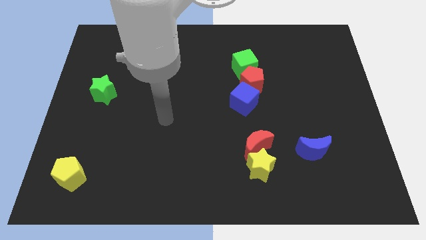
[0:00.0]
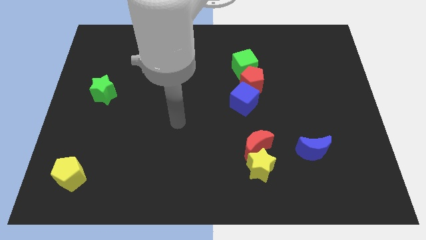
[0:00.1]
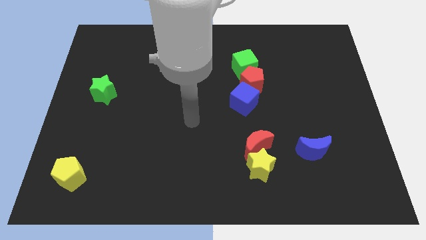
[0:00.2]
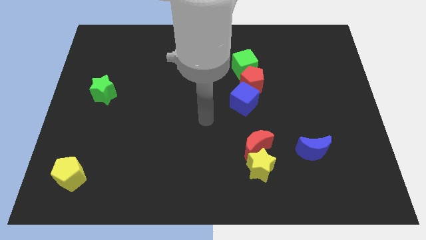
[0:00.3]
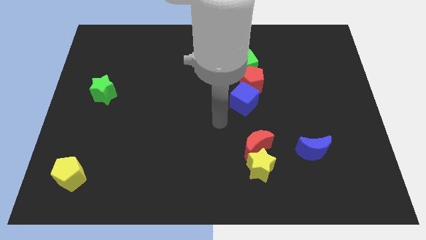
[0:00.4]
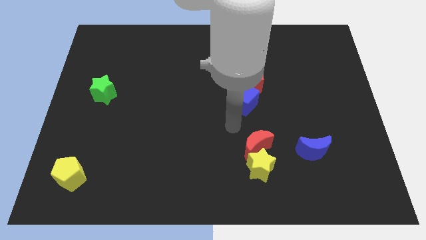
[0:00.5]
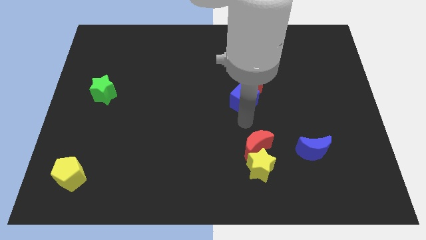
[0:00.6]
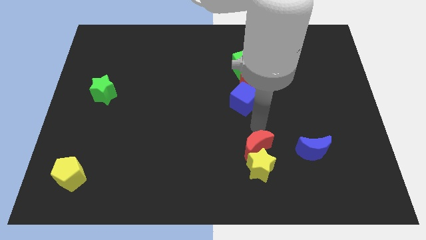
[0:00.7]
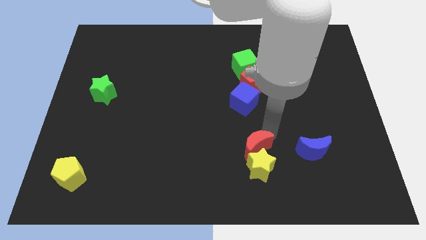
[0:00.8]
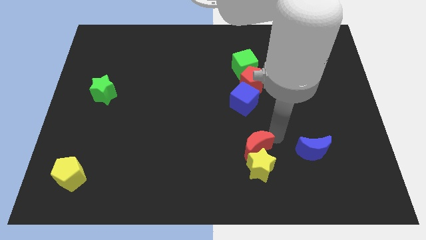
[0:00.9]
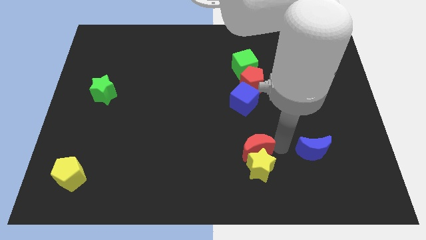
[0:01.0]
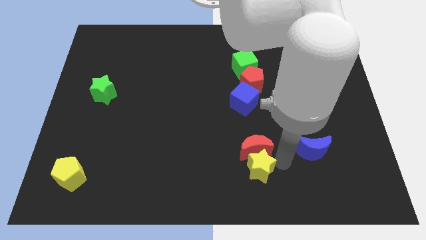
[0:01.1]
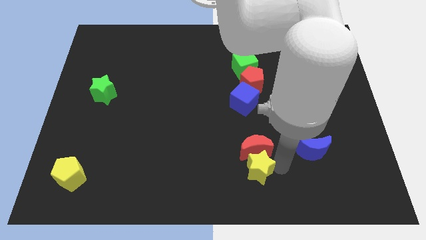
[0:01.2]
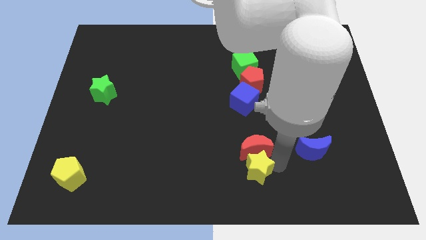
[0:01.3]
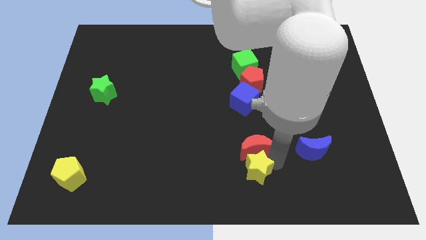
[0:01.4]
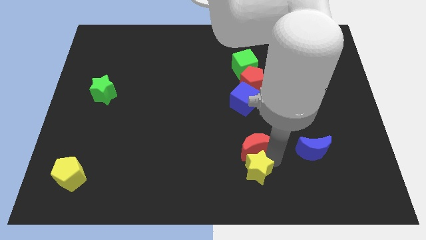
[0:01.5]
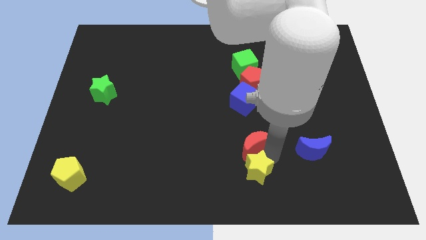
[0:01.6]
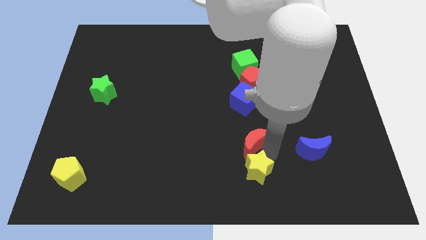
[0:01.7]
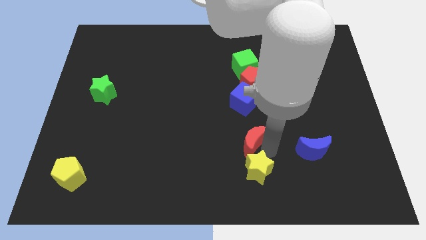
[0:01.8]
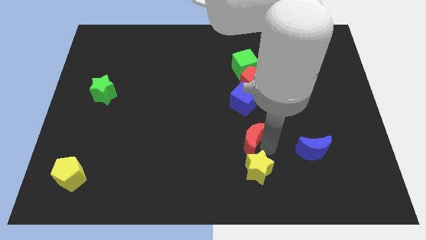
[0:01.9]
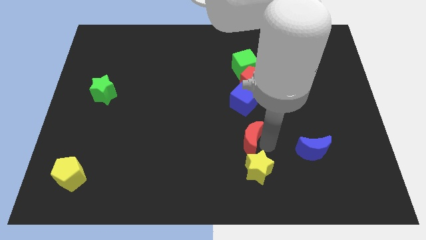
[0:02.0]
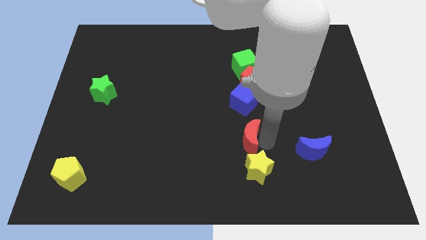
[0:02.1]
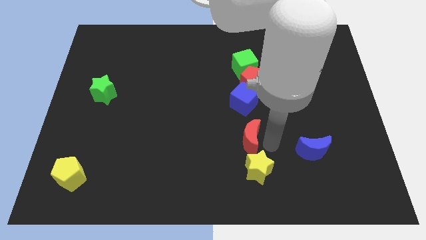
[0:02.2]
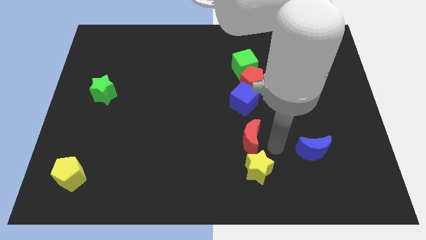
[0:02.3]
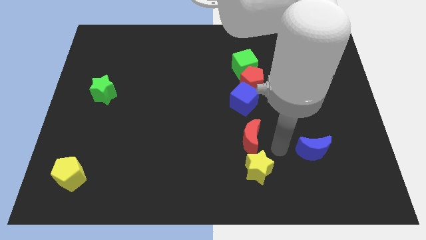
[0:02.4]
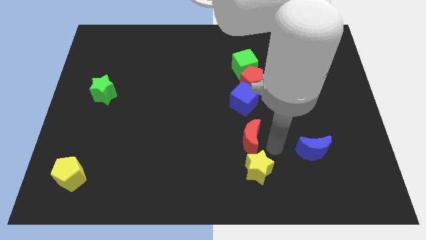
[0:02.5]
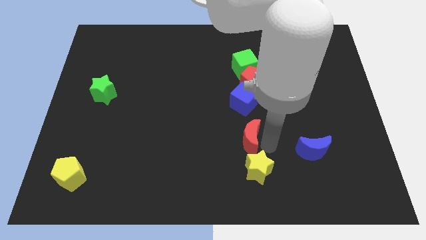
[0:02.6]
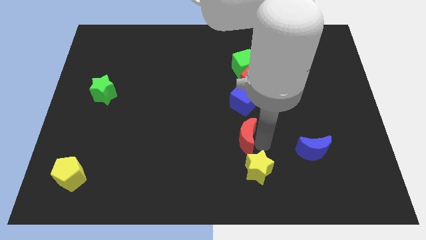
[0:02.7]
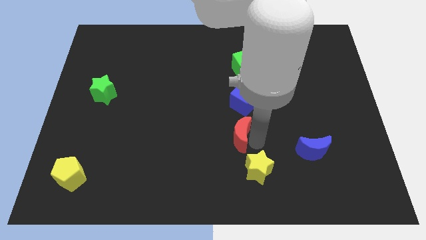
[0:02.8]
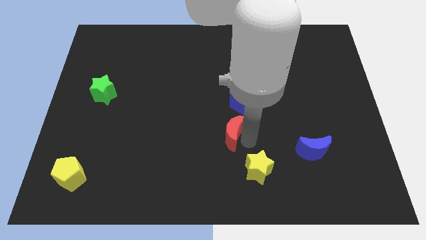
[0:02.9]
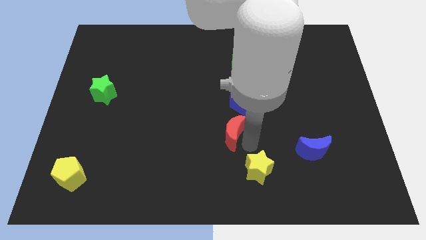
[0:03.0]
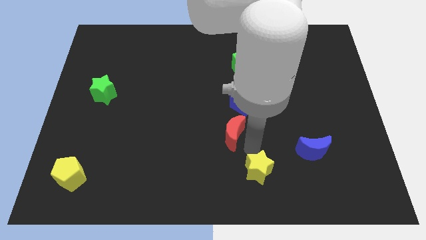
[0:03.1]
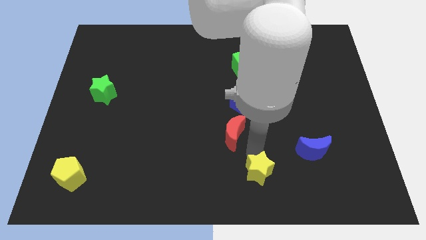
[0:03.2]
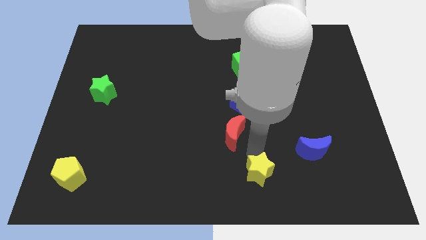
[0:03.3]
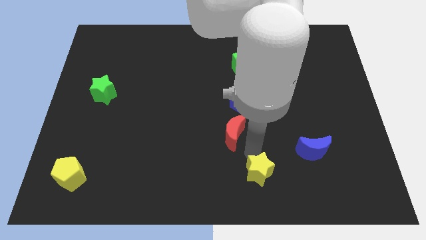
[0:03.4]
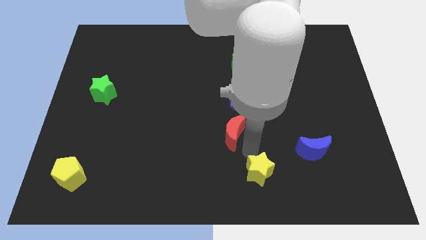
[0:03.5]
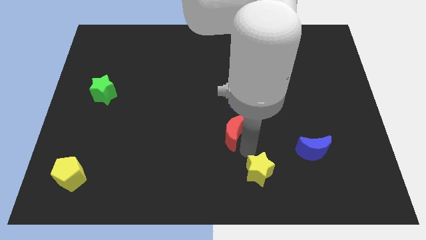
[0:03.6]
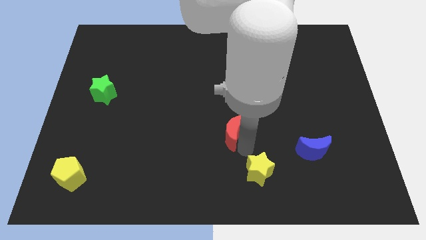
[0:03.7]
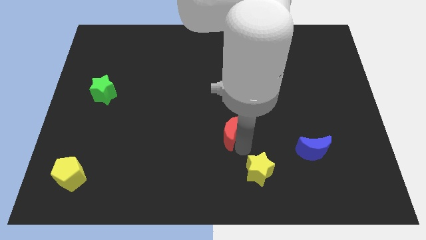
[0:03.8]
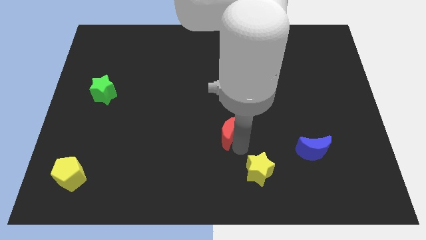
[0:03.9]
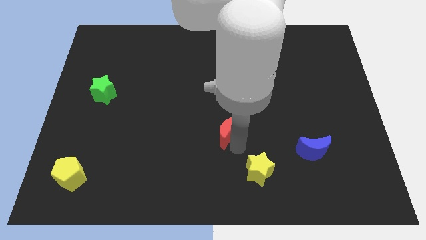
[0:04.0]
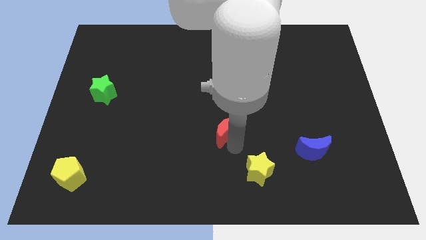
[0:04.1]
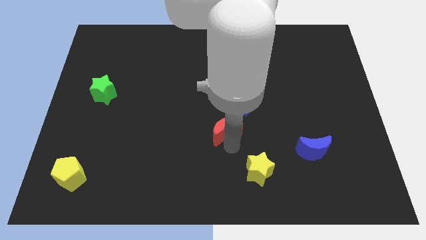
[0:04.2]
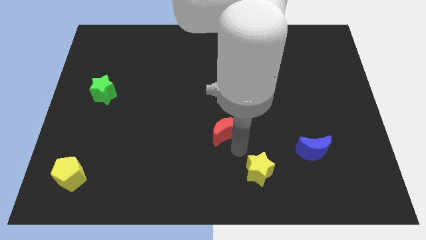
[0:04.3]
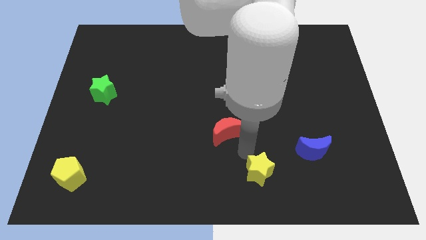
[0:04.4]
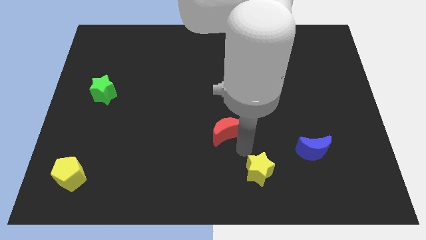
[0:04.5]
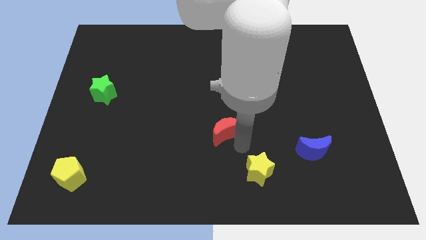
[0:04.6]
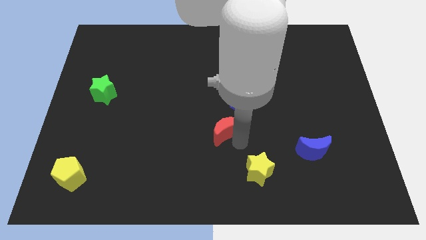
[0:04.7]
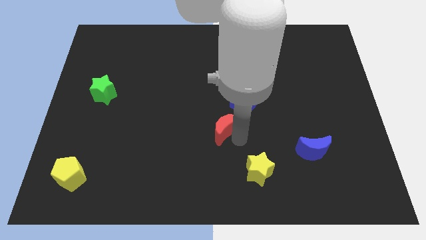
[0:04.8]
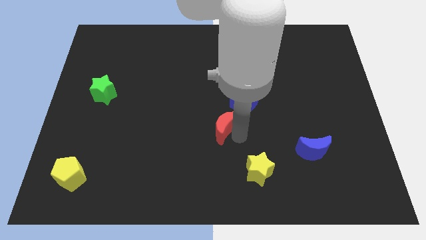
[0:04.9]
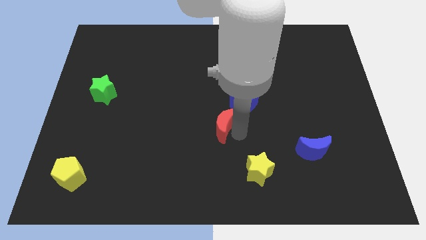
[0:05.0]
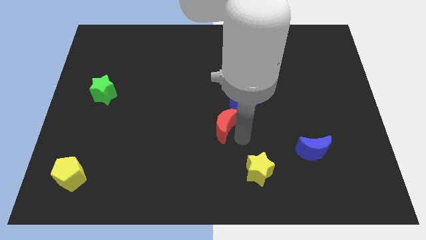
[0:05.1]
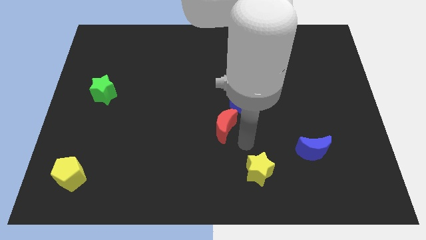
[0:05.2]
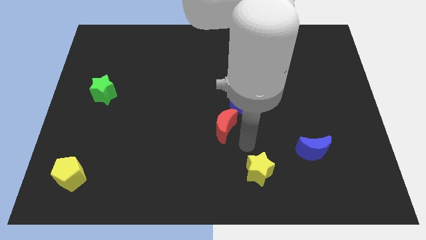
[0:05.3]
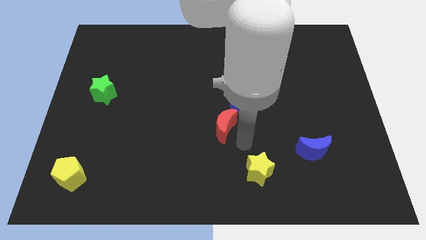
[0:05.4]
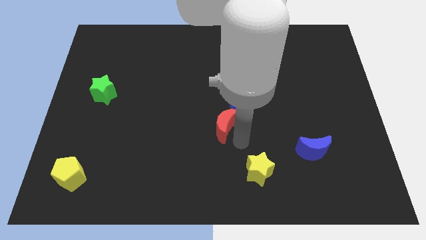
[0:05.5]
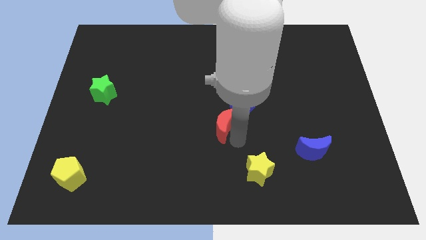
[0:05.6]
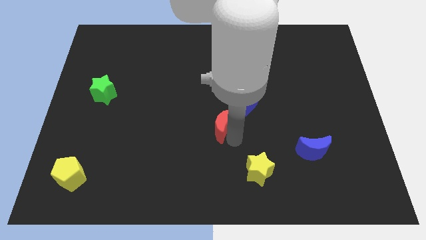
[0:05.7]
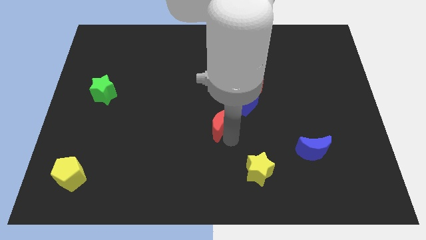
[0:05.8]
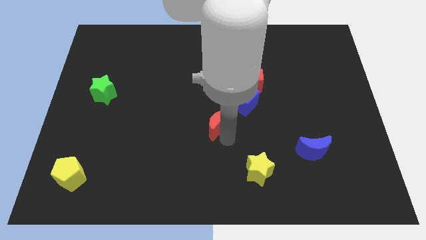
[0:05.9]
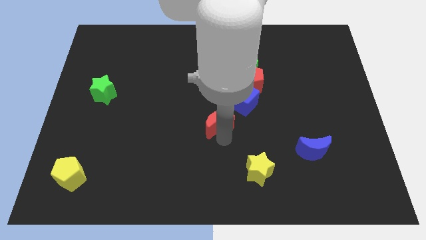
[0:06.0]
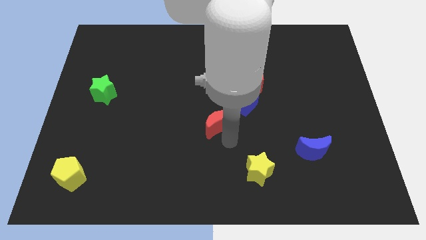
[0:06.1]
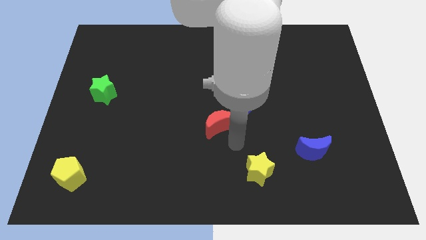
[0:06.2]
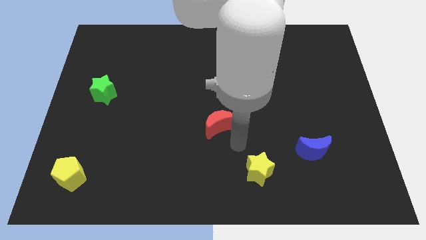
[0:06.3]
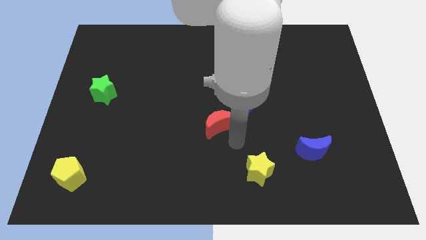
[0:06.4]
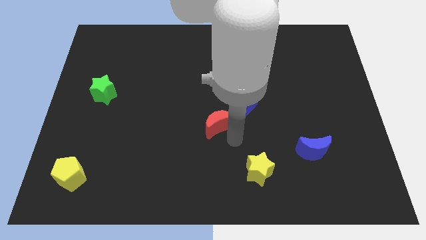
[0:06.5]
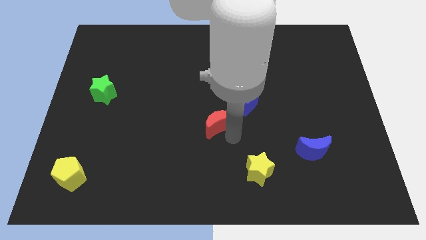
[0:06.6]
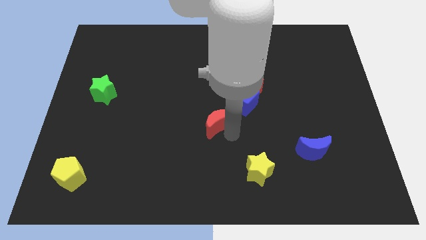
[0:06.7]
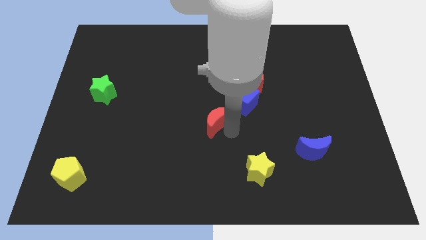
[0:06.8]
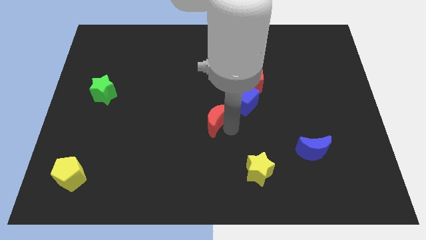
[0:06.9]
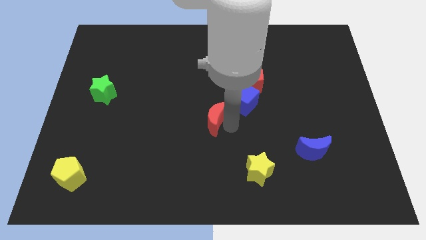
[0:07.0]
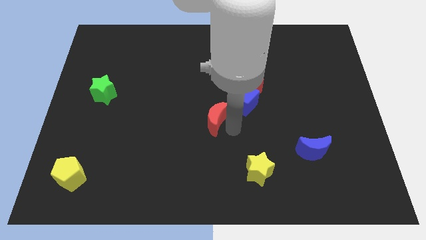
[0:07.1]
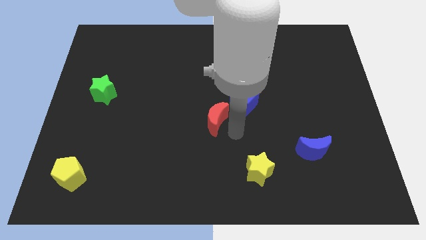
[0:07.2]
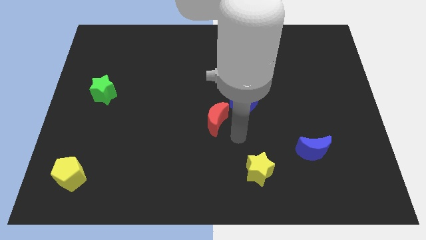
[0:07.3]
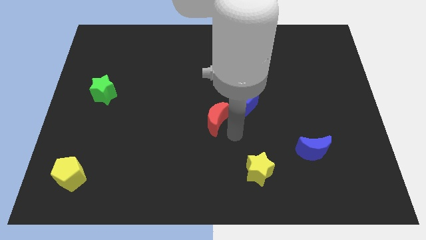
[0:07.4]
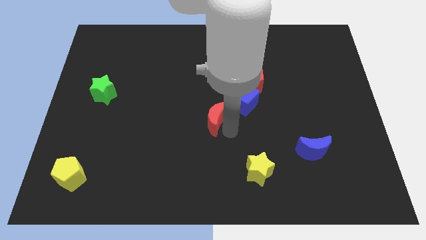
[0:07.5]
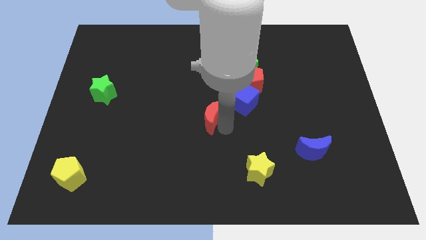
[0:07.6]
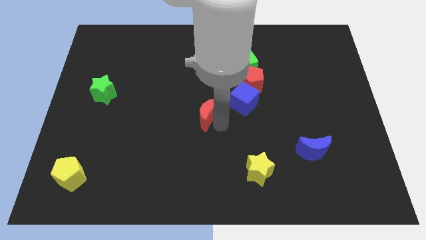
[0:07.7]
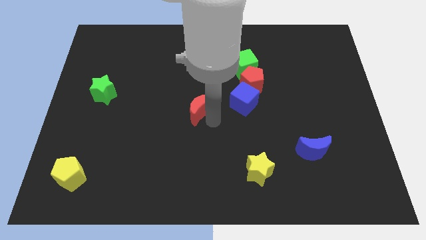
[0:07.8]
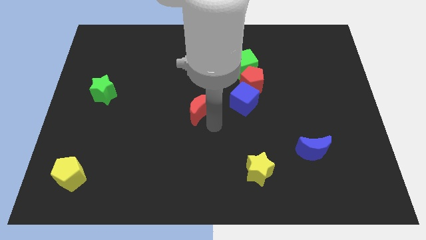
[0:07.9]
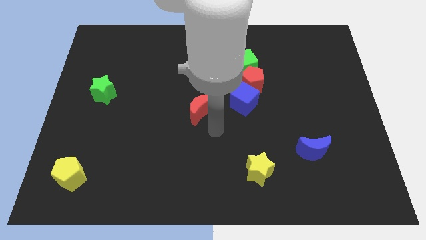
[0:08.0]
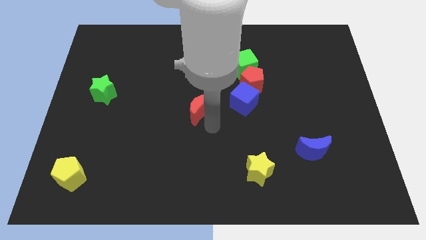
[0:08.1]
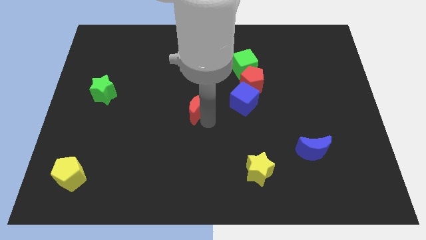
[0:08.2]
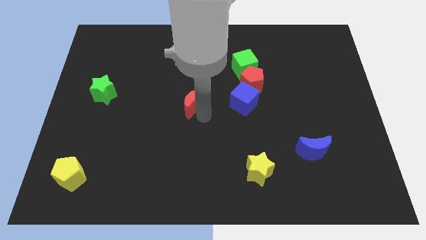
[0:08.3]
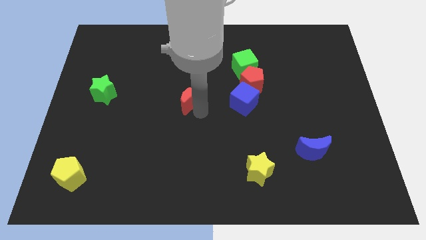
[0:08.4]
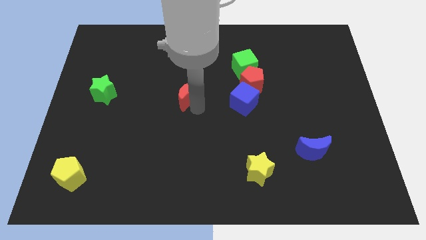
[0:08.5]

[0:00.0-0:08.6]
push the red moon up and to the left
